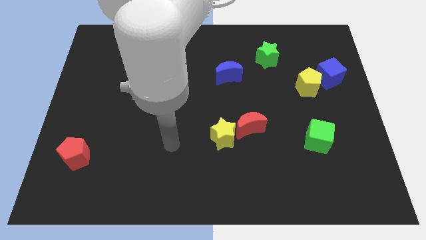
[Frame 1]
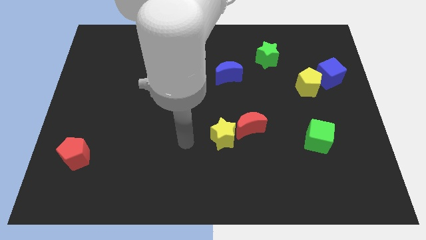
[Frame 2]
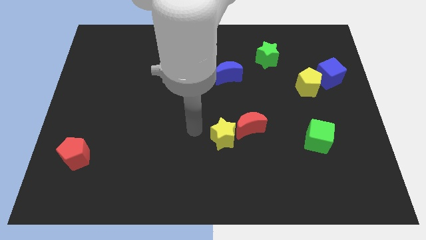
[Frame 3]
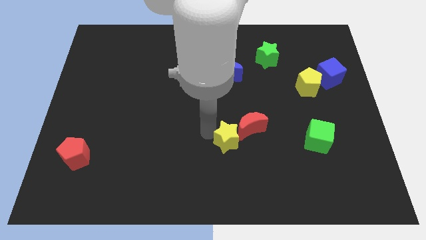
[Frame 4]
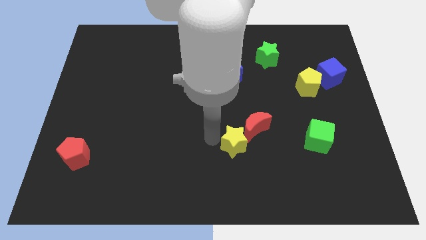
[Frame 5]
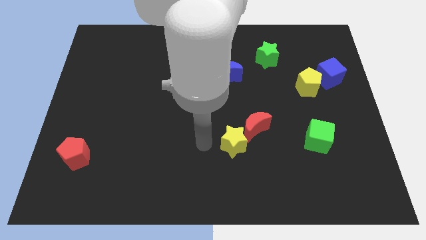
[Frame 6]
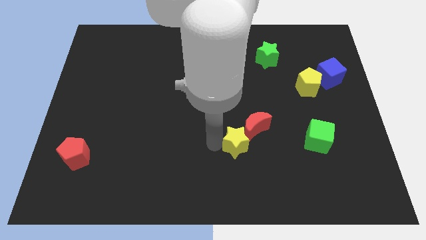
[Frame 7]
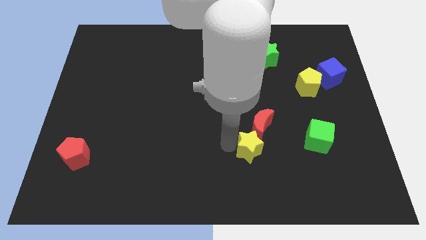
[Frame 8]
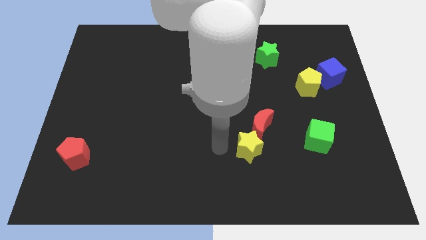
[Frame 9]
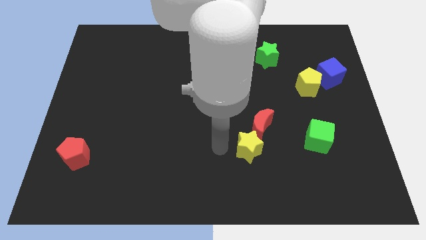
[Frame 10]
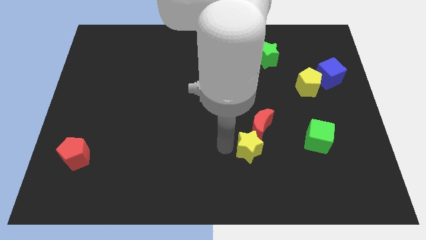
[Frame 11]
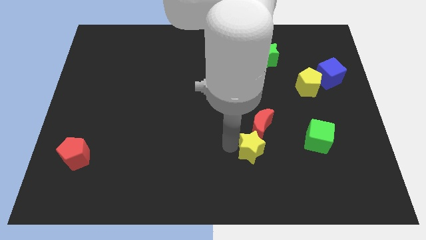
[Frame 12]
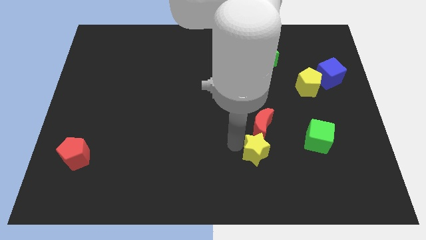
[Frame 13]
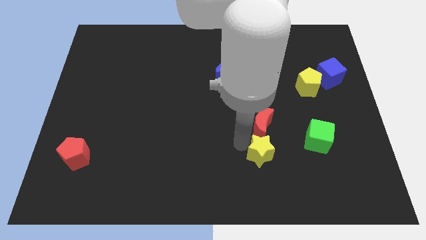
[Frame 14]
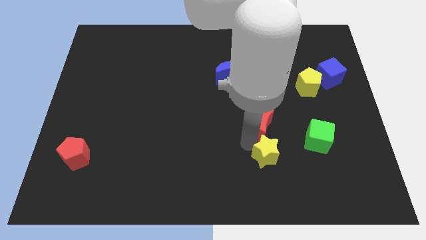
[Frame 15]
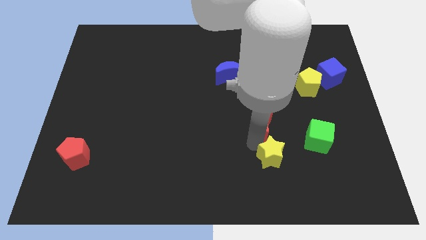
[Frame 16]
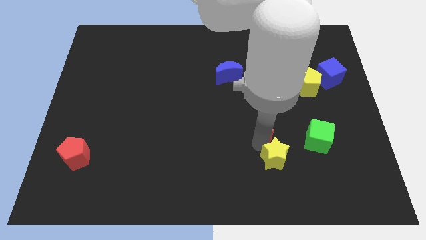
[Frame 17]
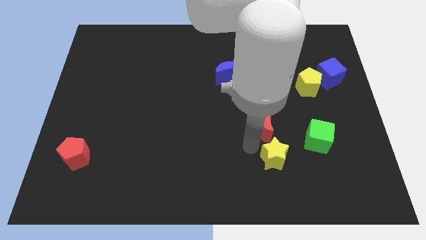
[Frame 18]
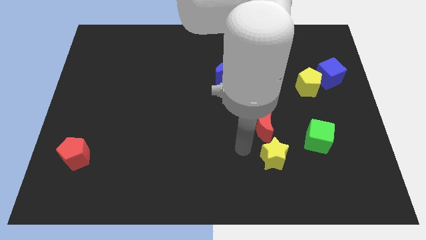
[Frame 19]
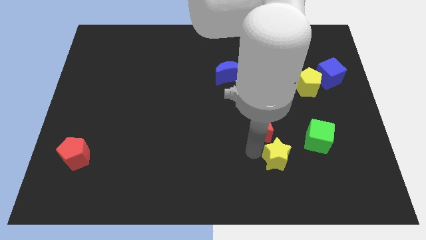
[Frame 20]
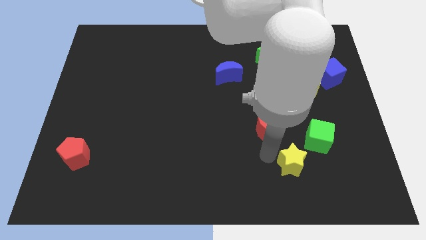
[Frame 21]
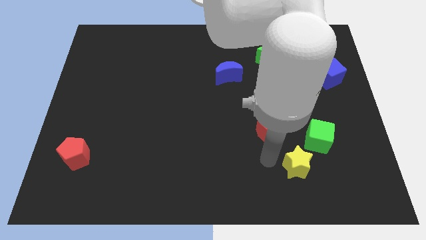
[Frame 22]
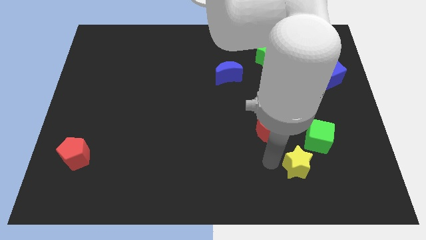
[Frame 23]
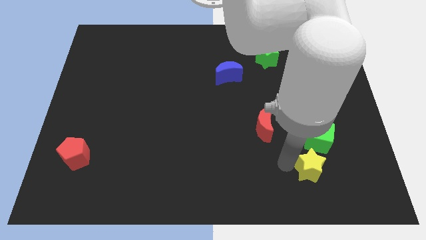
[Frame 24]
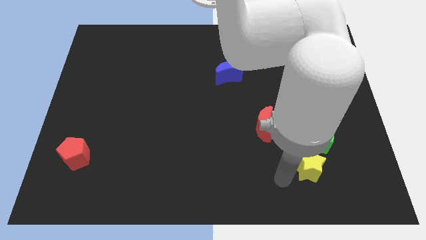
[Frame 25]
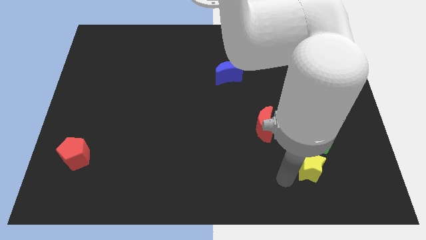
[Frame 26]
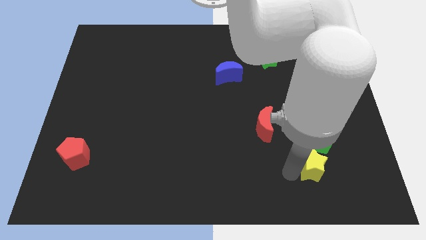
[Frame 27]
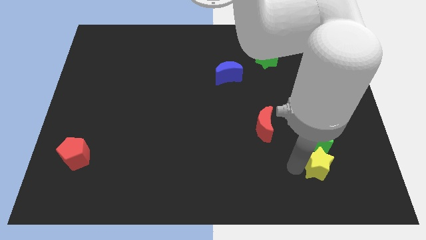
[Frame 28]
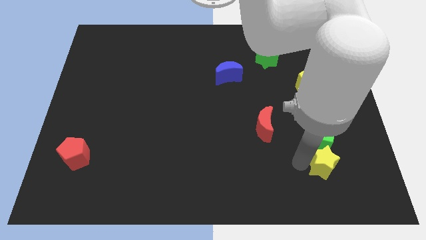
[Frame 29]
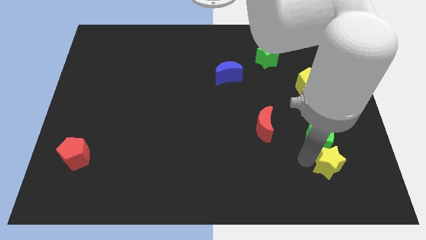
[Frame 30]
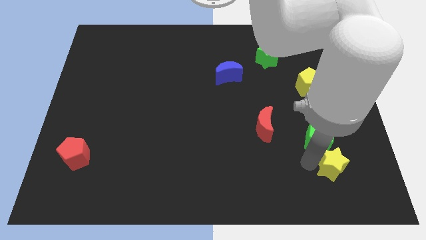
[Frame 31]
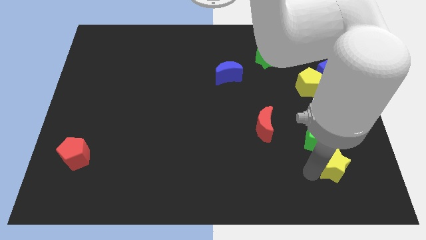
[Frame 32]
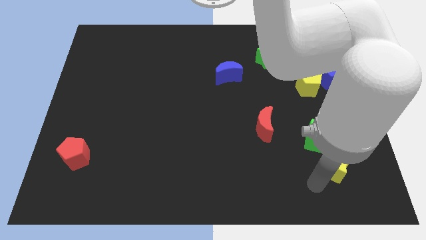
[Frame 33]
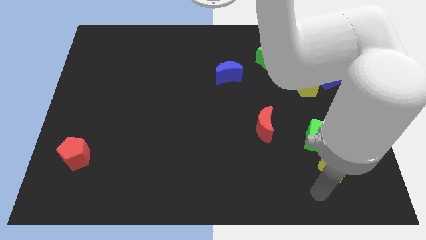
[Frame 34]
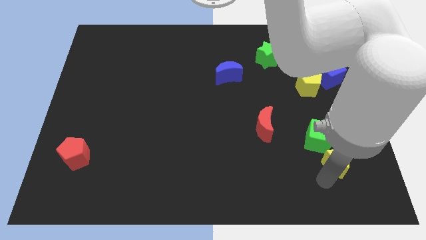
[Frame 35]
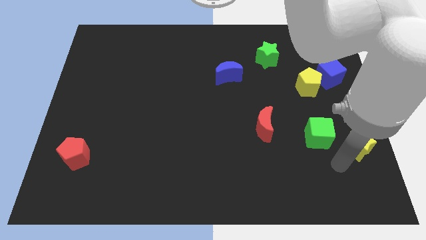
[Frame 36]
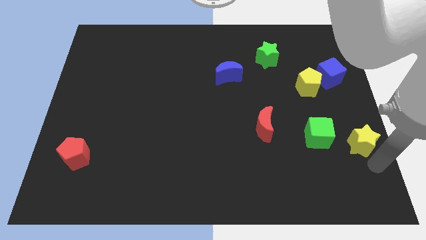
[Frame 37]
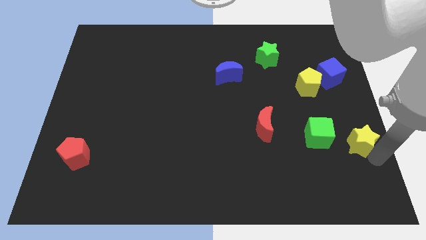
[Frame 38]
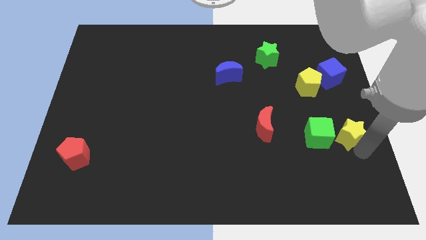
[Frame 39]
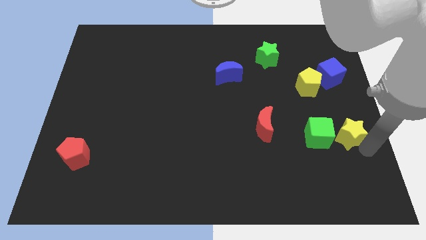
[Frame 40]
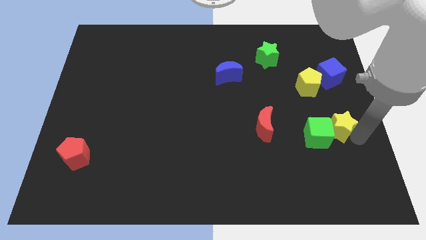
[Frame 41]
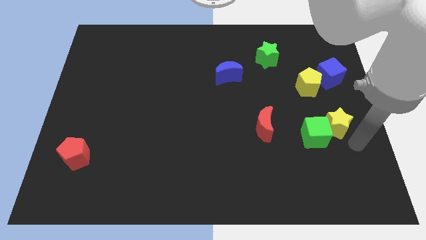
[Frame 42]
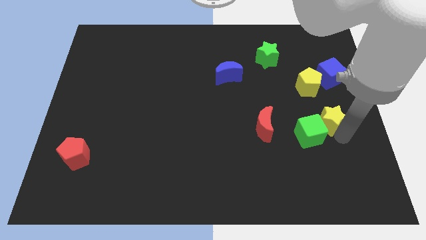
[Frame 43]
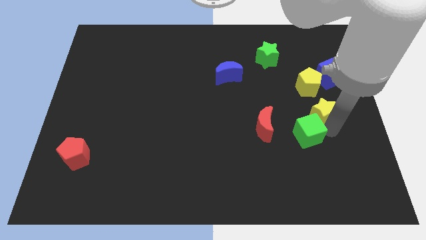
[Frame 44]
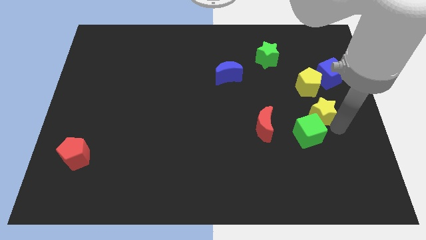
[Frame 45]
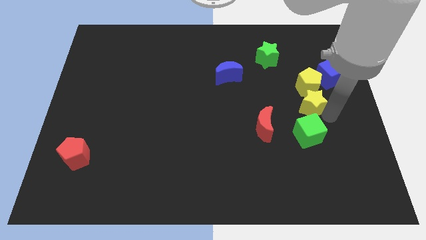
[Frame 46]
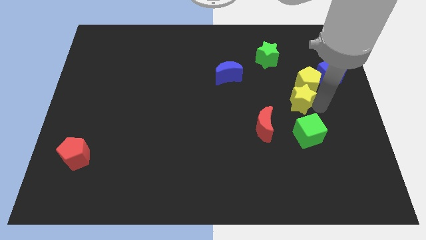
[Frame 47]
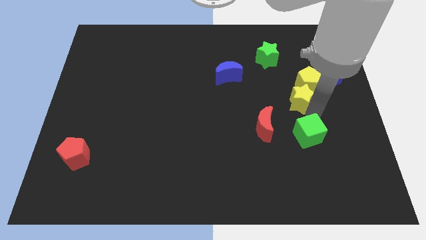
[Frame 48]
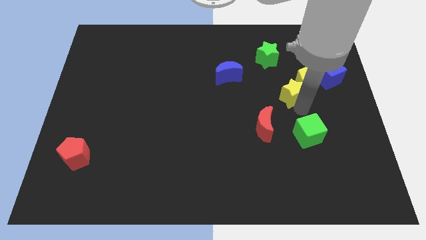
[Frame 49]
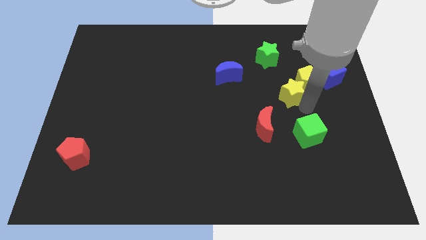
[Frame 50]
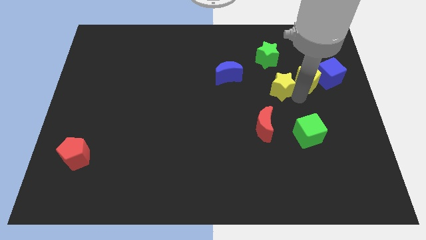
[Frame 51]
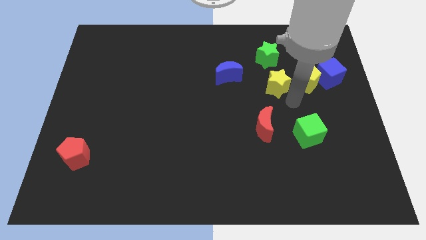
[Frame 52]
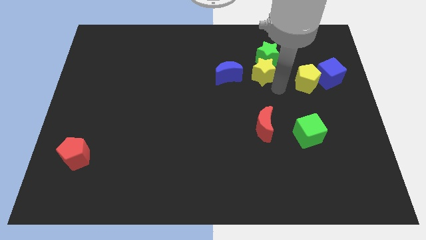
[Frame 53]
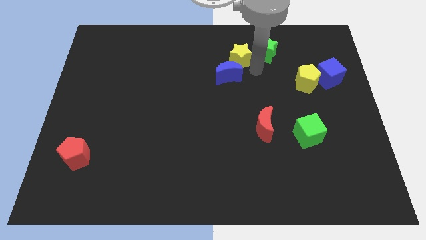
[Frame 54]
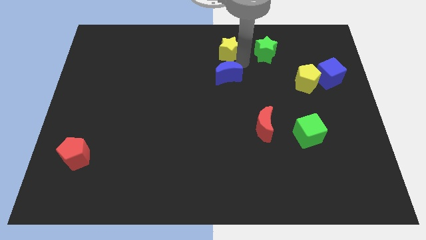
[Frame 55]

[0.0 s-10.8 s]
slide the yellow star to the top side

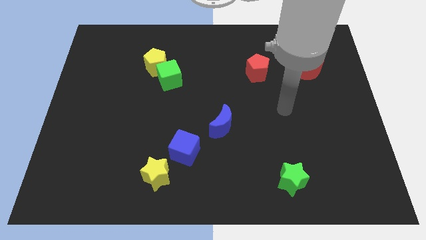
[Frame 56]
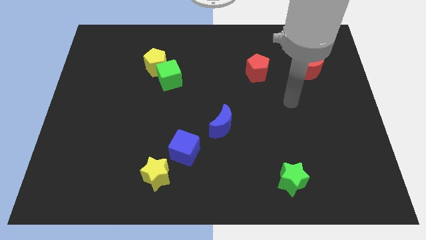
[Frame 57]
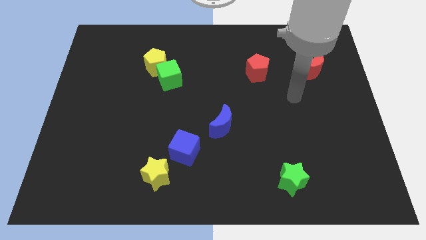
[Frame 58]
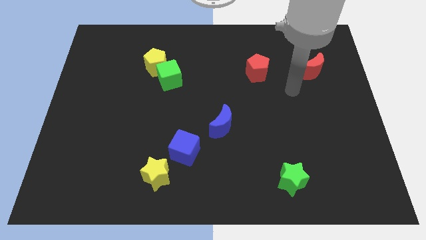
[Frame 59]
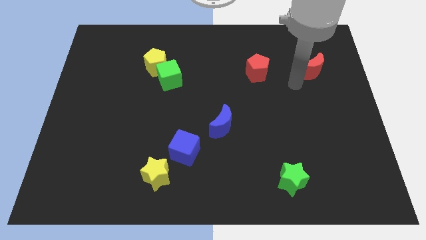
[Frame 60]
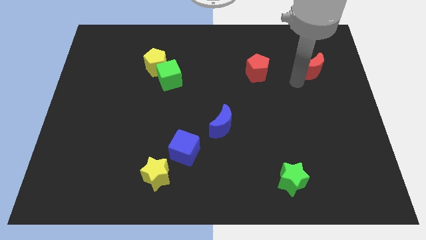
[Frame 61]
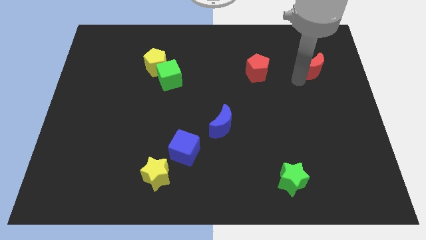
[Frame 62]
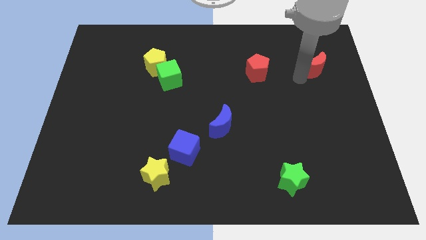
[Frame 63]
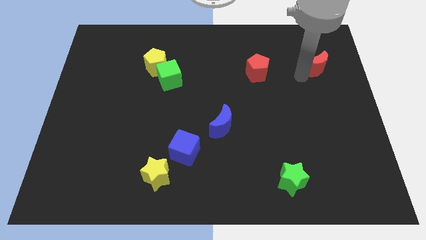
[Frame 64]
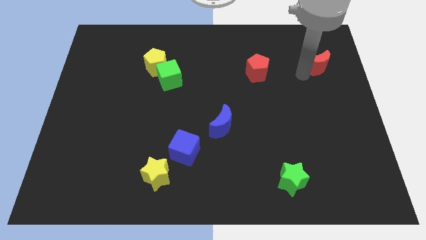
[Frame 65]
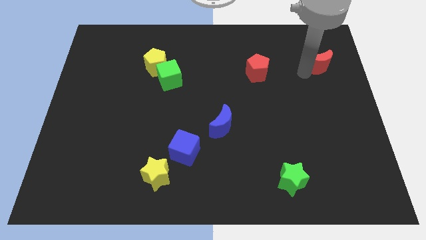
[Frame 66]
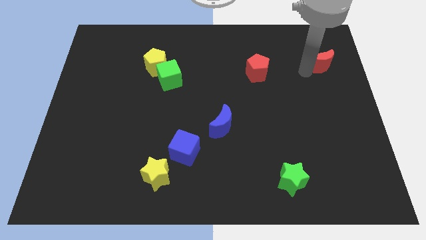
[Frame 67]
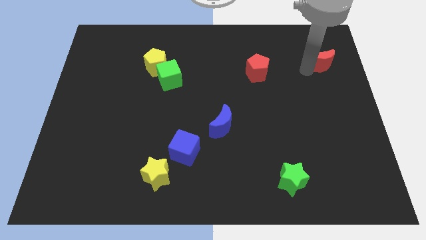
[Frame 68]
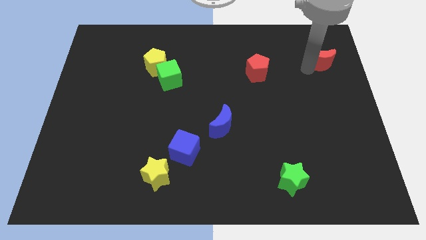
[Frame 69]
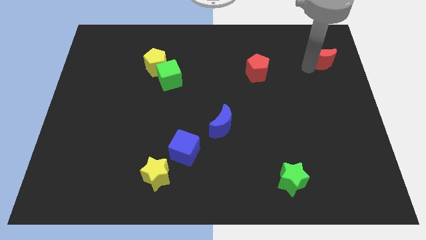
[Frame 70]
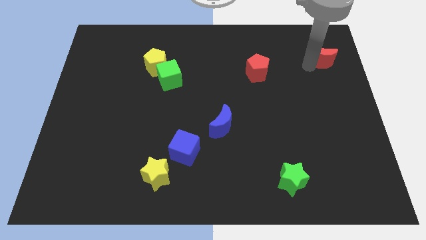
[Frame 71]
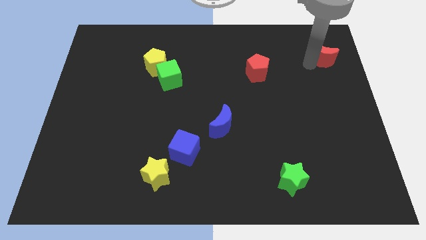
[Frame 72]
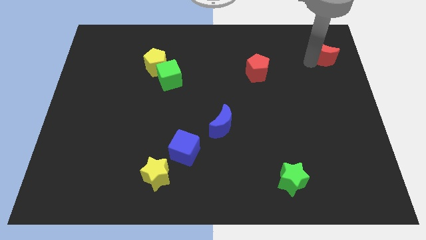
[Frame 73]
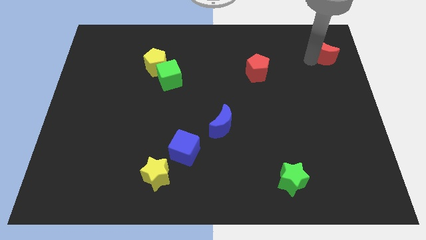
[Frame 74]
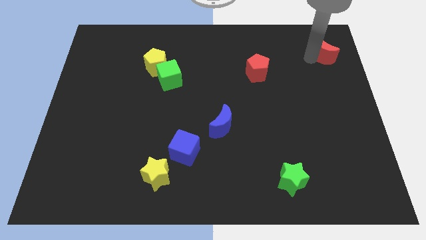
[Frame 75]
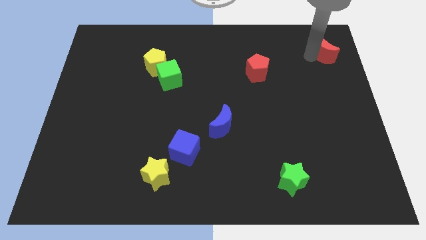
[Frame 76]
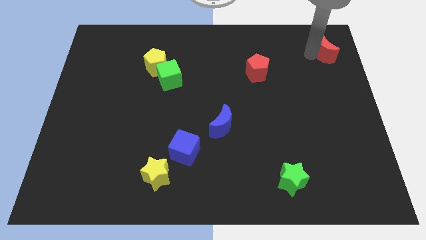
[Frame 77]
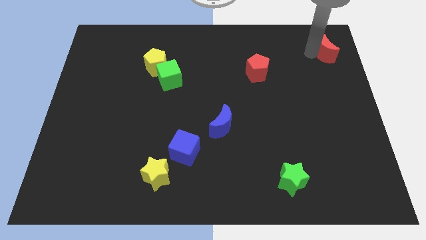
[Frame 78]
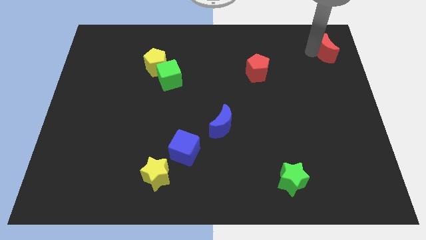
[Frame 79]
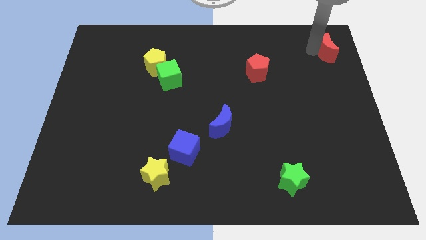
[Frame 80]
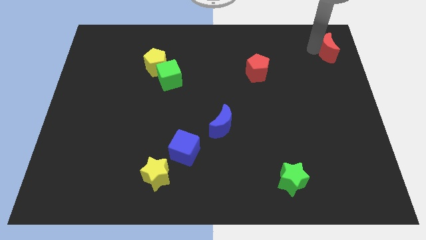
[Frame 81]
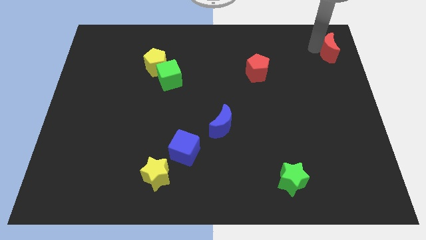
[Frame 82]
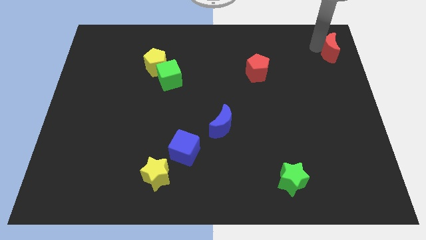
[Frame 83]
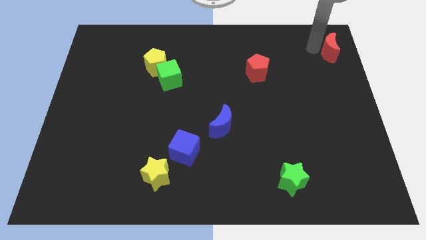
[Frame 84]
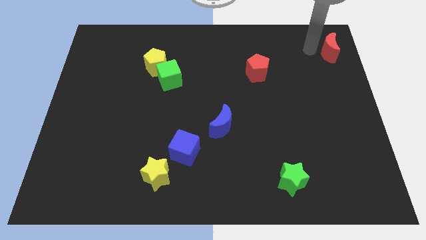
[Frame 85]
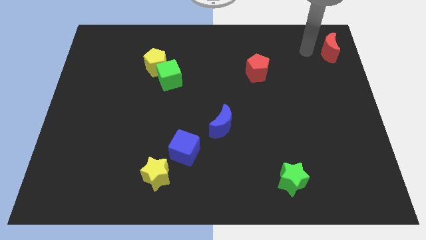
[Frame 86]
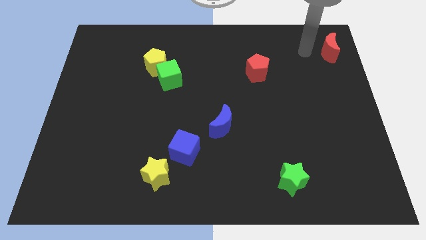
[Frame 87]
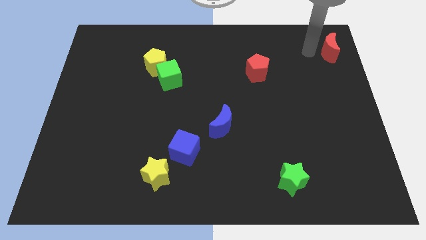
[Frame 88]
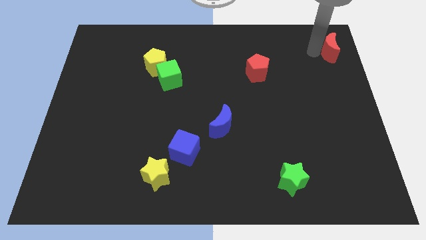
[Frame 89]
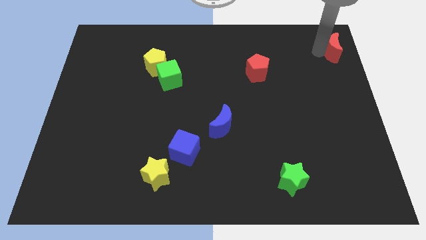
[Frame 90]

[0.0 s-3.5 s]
push the red moon to the upper right corner
